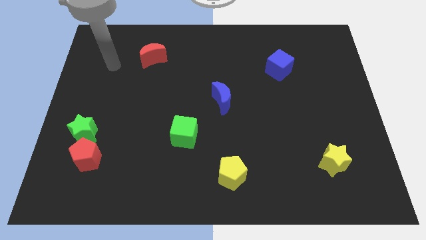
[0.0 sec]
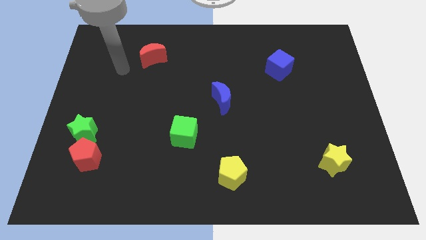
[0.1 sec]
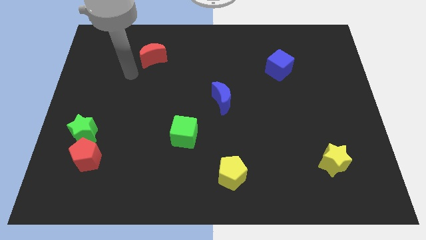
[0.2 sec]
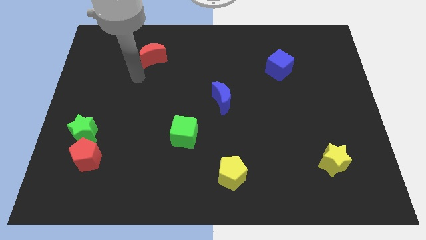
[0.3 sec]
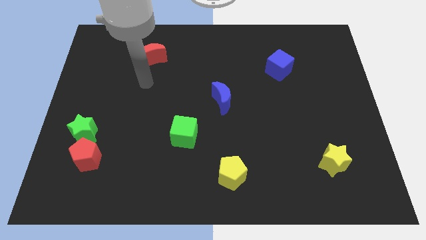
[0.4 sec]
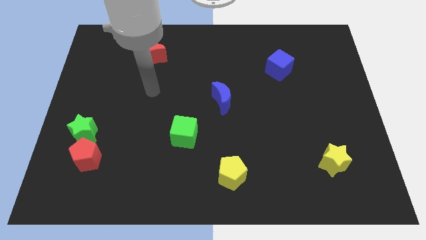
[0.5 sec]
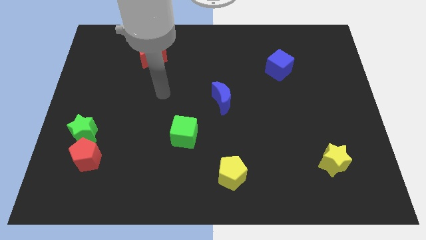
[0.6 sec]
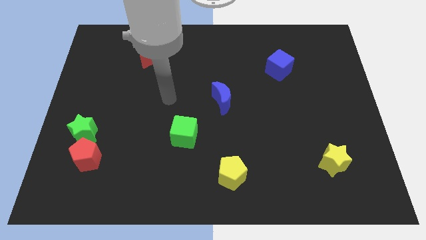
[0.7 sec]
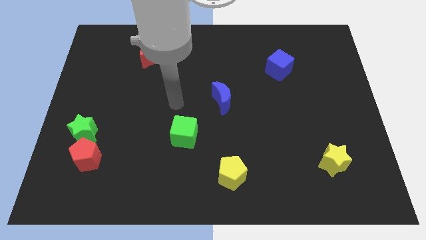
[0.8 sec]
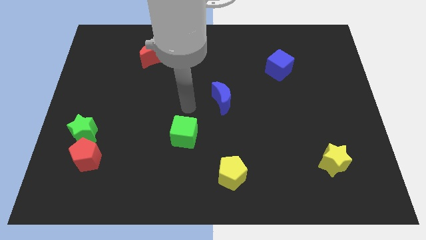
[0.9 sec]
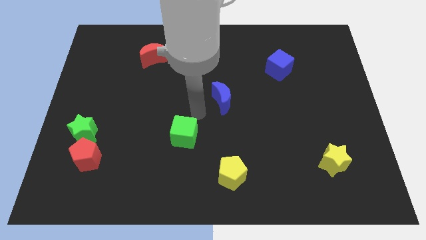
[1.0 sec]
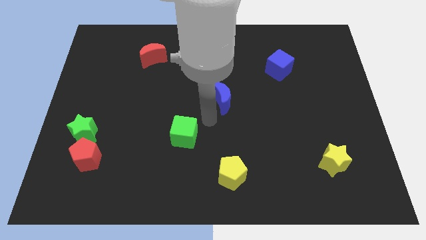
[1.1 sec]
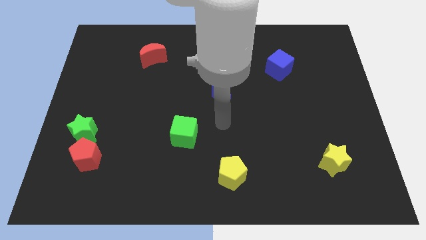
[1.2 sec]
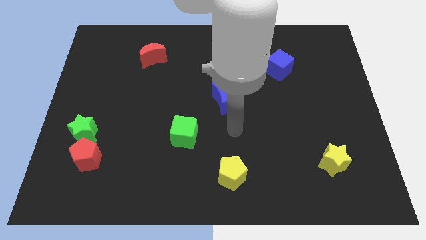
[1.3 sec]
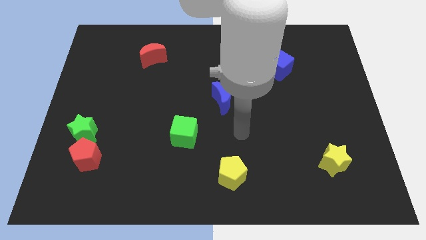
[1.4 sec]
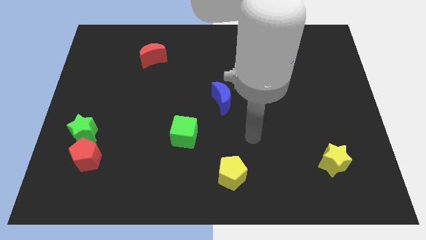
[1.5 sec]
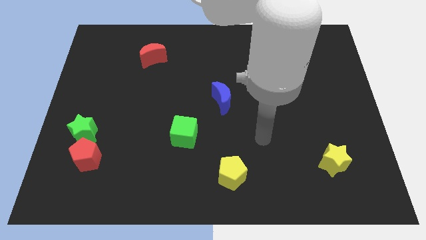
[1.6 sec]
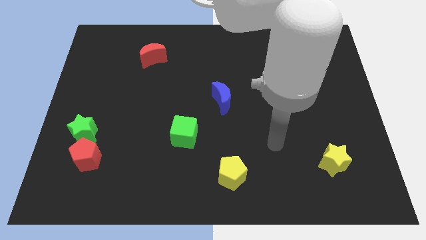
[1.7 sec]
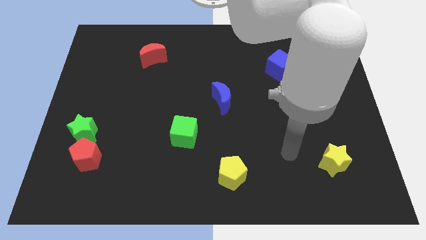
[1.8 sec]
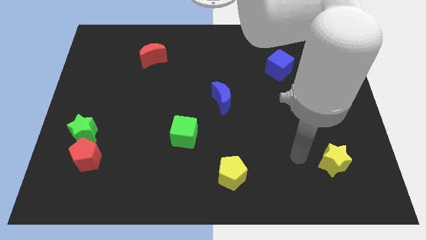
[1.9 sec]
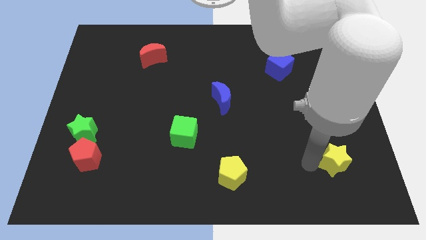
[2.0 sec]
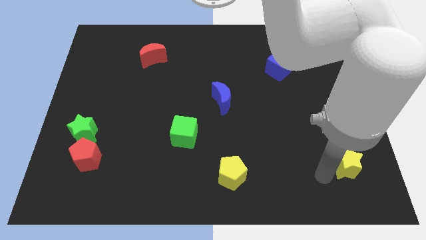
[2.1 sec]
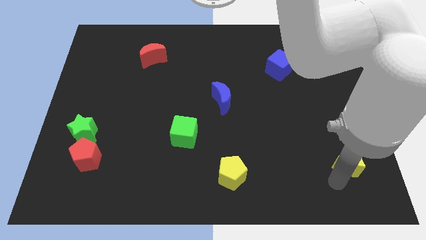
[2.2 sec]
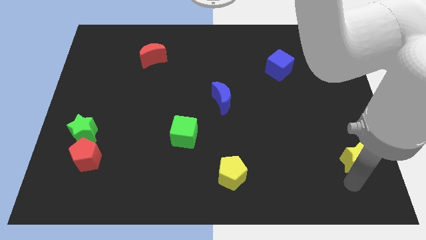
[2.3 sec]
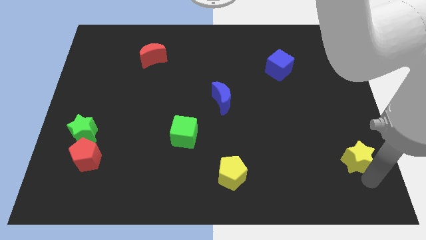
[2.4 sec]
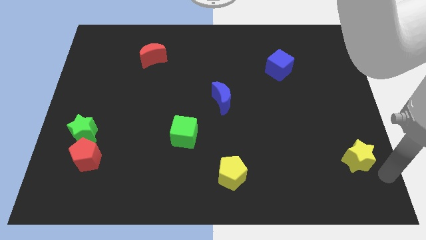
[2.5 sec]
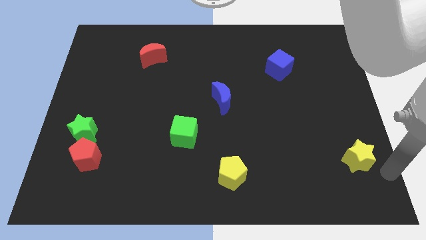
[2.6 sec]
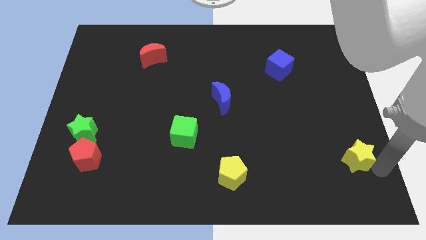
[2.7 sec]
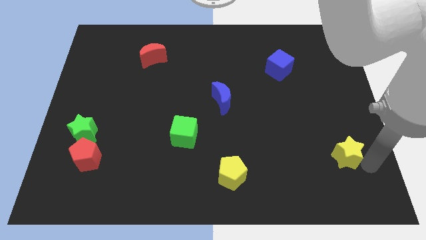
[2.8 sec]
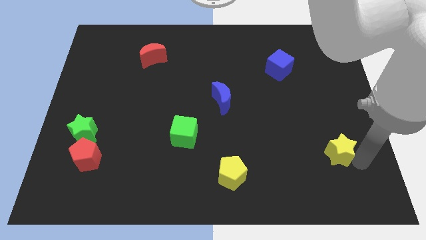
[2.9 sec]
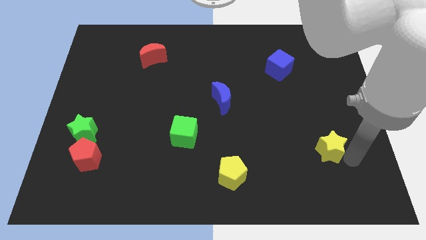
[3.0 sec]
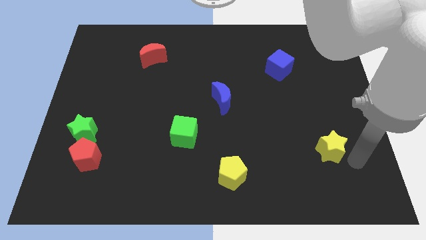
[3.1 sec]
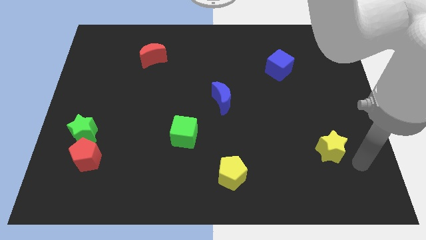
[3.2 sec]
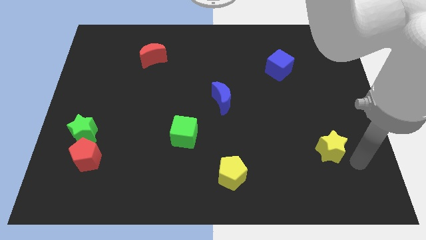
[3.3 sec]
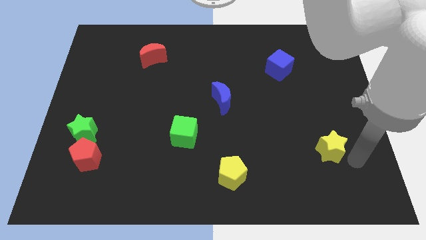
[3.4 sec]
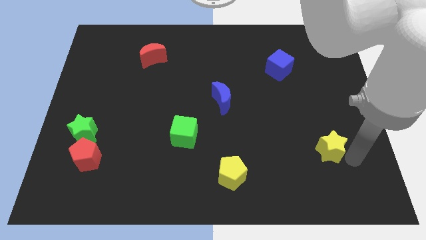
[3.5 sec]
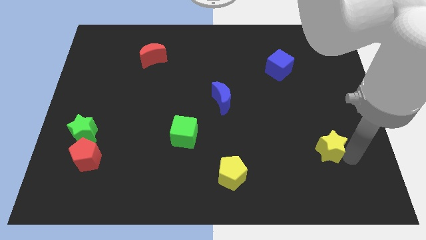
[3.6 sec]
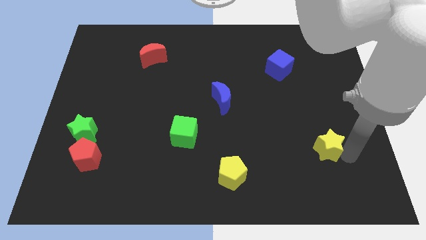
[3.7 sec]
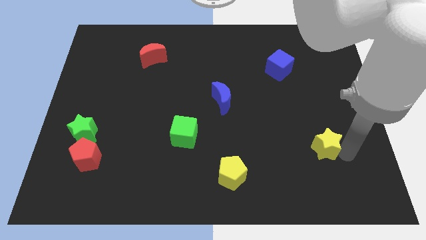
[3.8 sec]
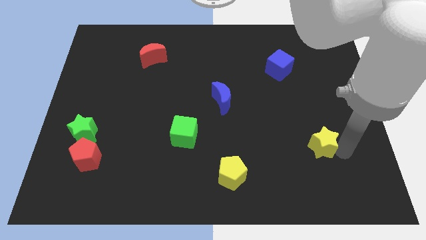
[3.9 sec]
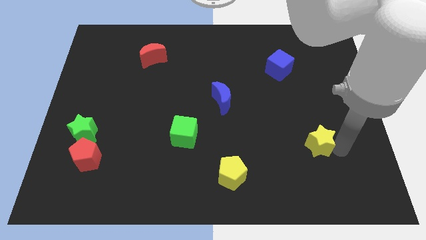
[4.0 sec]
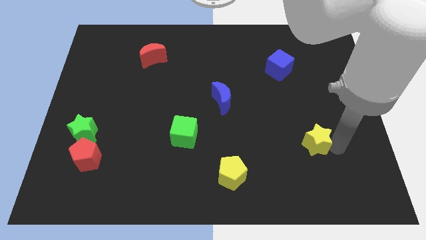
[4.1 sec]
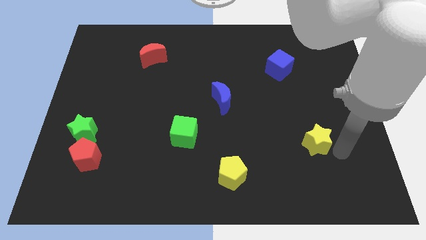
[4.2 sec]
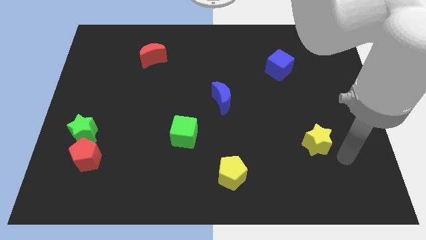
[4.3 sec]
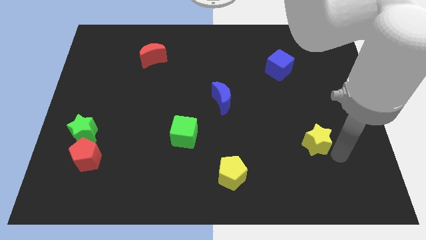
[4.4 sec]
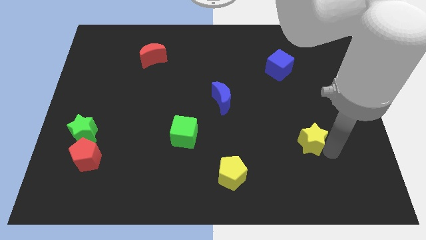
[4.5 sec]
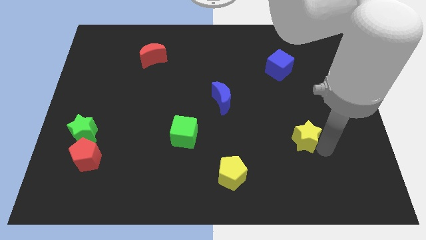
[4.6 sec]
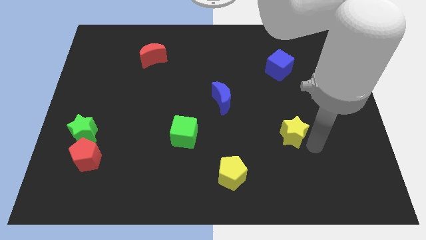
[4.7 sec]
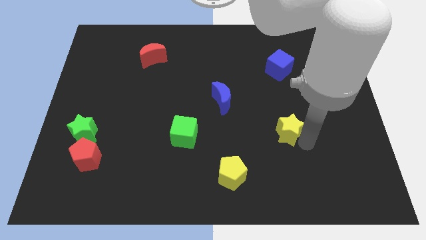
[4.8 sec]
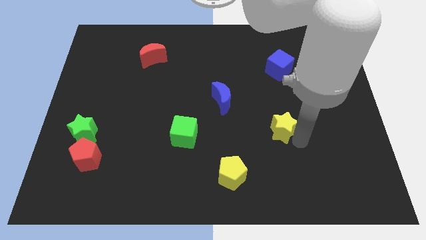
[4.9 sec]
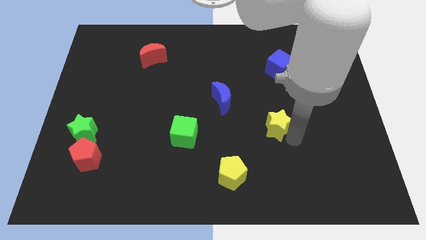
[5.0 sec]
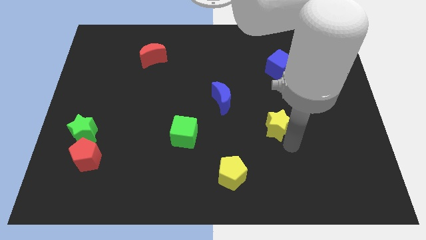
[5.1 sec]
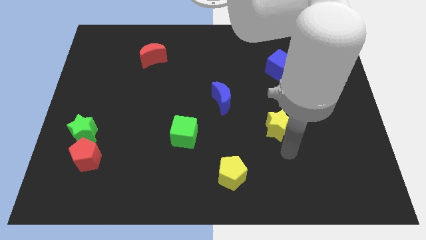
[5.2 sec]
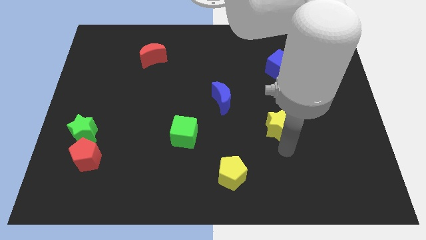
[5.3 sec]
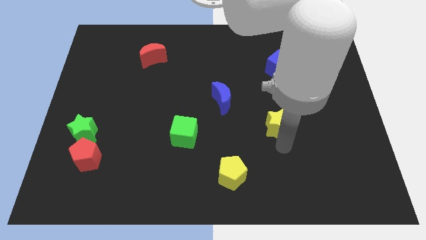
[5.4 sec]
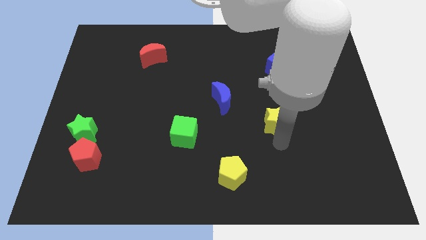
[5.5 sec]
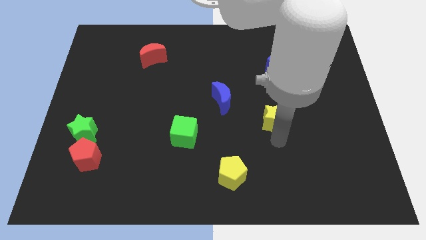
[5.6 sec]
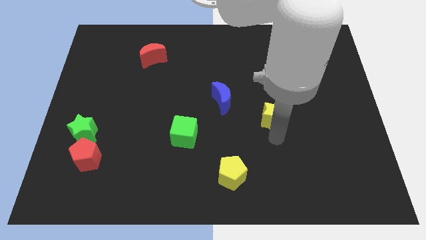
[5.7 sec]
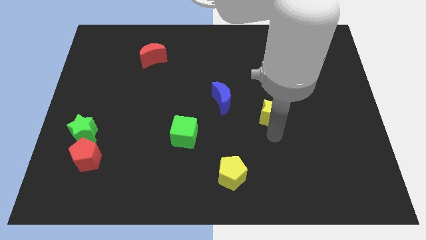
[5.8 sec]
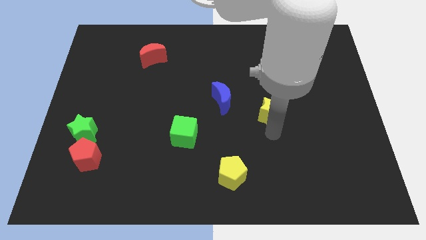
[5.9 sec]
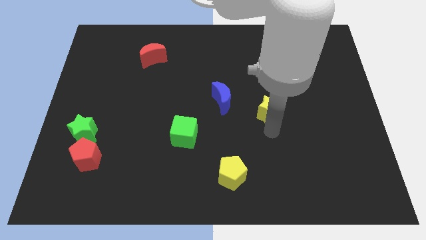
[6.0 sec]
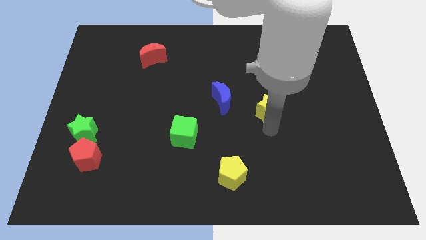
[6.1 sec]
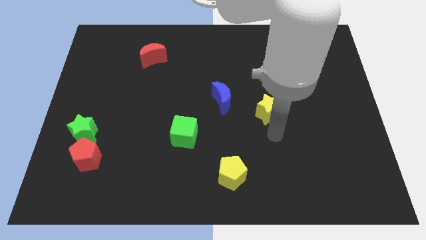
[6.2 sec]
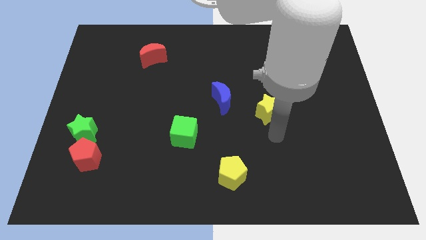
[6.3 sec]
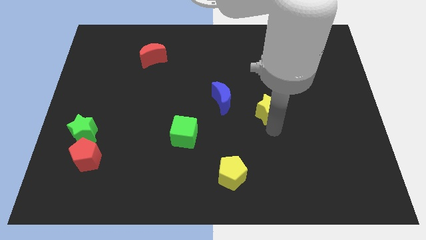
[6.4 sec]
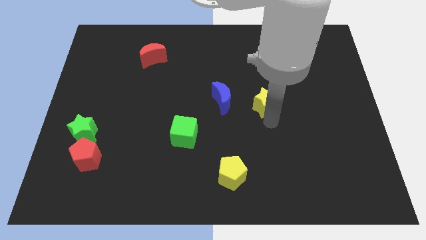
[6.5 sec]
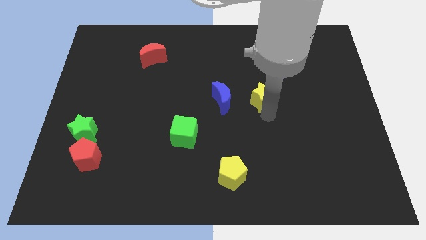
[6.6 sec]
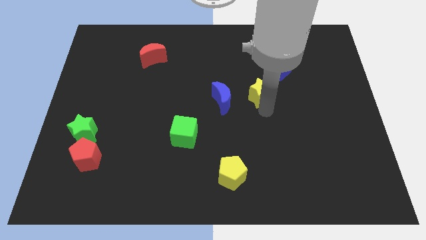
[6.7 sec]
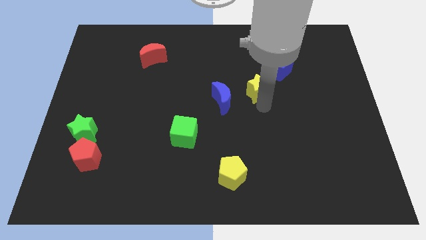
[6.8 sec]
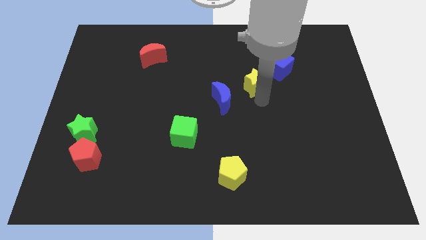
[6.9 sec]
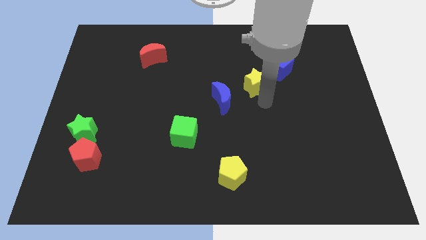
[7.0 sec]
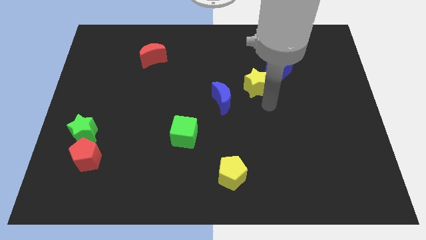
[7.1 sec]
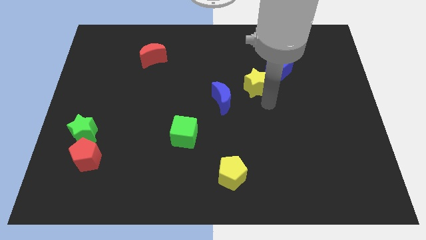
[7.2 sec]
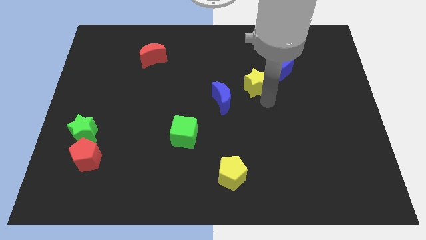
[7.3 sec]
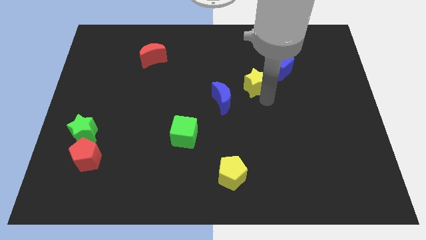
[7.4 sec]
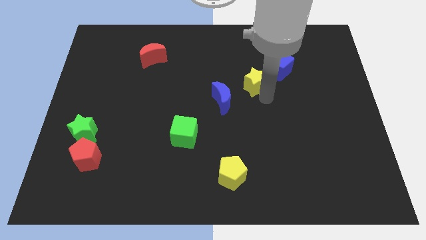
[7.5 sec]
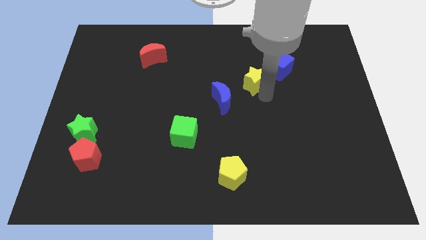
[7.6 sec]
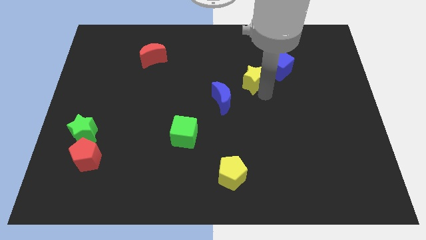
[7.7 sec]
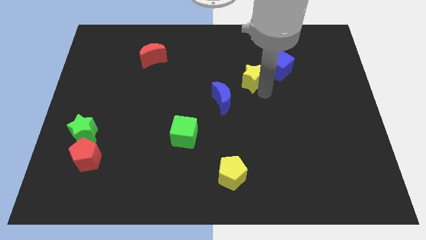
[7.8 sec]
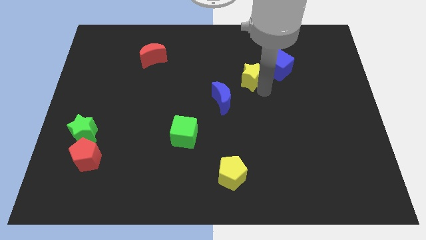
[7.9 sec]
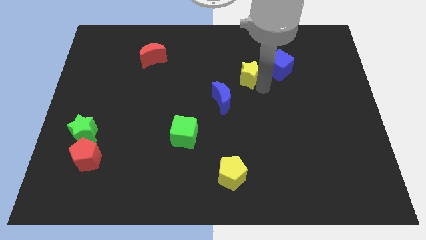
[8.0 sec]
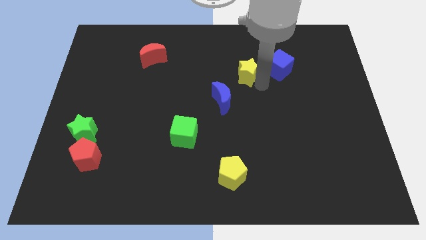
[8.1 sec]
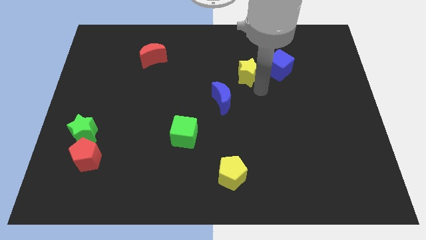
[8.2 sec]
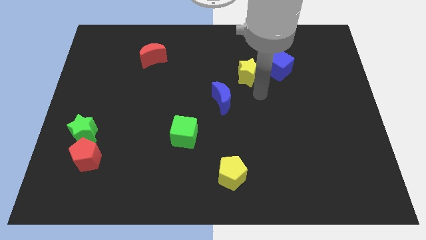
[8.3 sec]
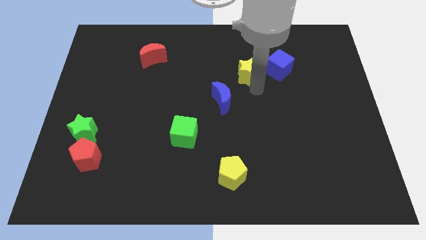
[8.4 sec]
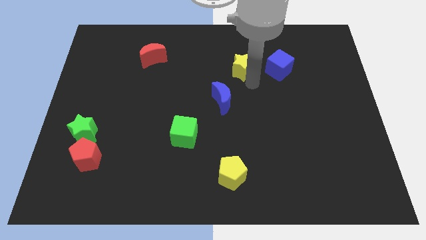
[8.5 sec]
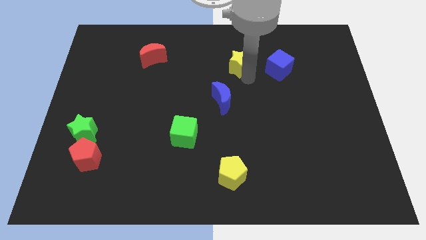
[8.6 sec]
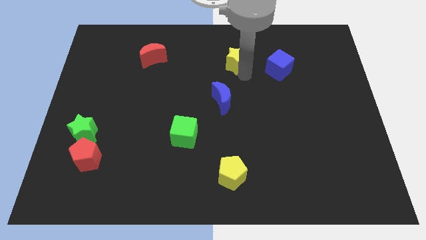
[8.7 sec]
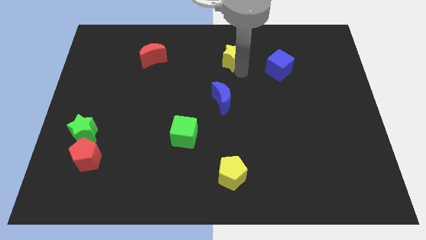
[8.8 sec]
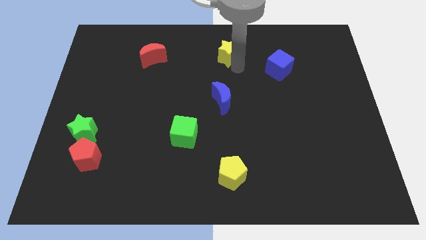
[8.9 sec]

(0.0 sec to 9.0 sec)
push the yellow star to the top side
